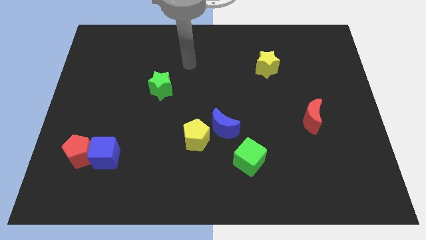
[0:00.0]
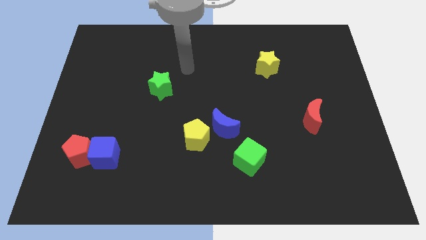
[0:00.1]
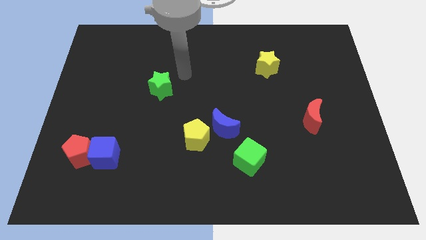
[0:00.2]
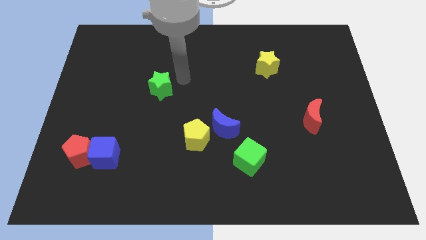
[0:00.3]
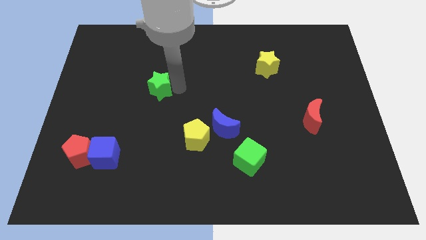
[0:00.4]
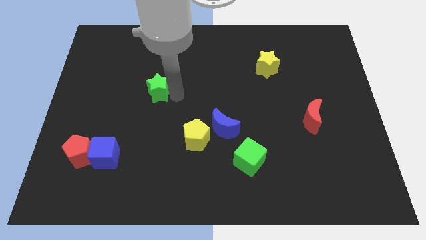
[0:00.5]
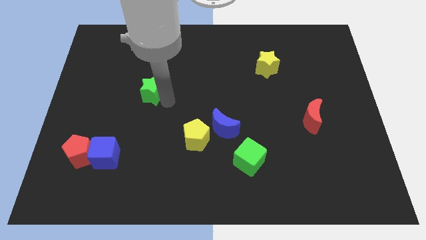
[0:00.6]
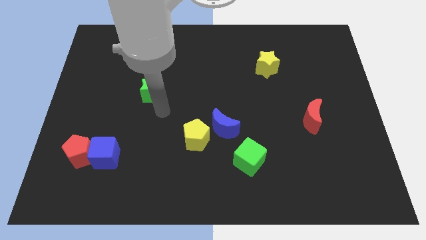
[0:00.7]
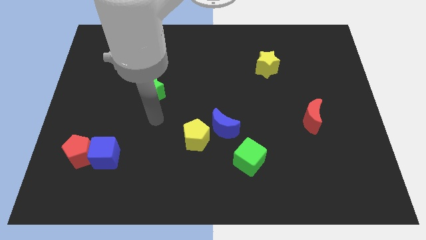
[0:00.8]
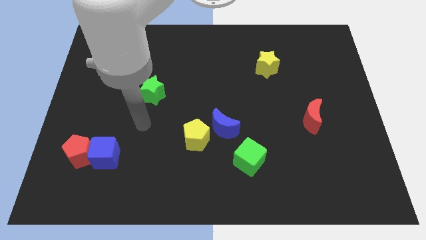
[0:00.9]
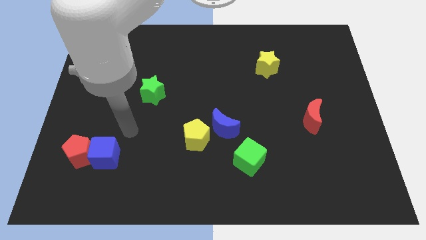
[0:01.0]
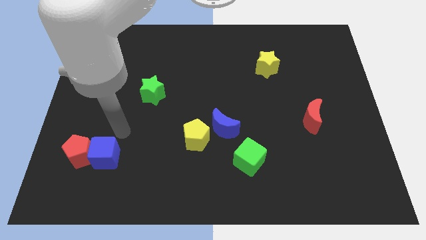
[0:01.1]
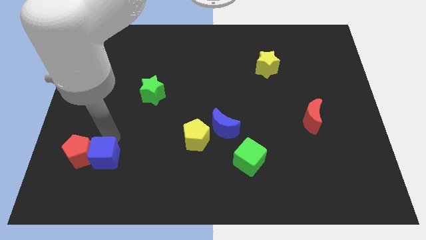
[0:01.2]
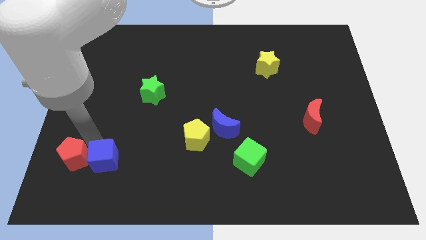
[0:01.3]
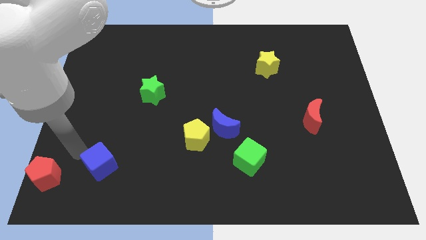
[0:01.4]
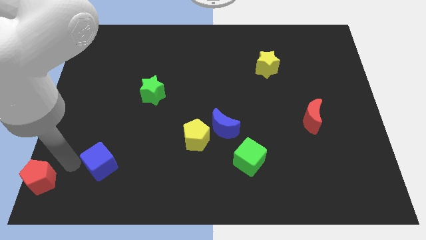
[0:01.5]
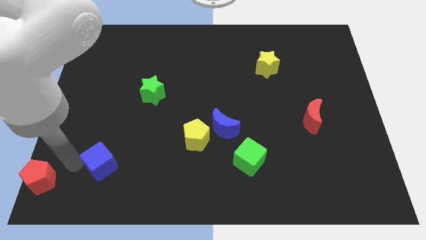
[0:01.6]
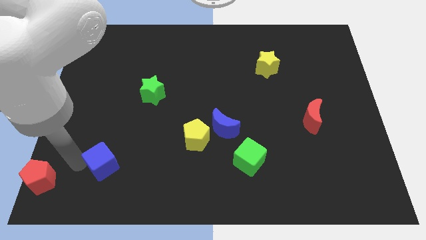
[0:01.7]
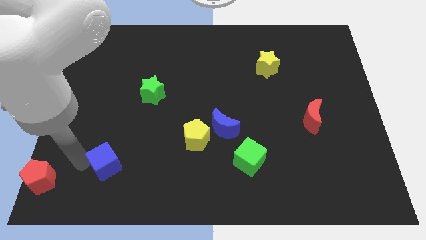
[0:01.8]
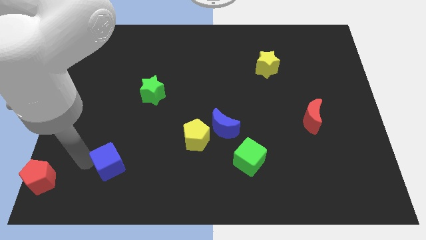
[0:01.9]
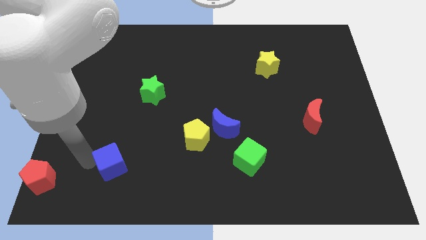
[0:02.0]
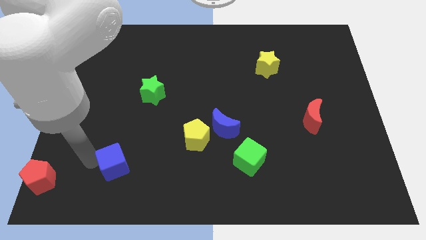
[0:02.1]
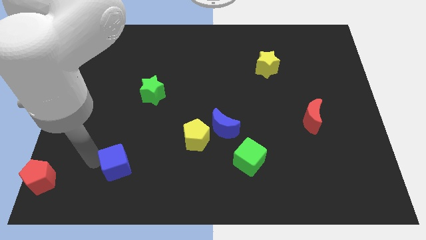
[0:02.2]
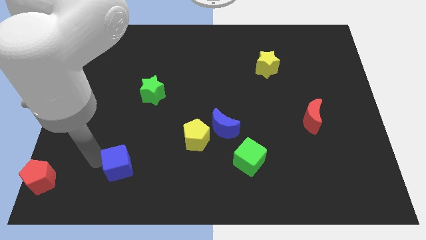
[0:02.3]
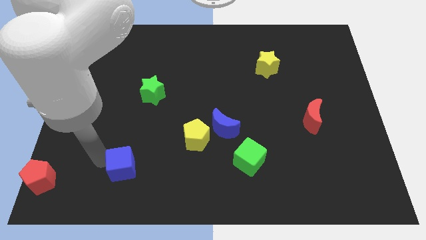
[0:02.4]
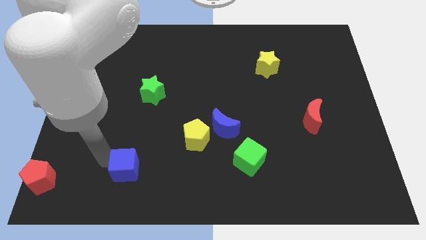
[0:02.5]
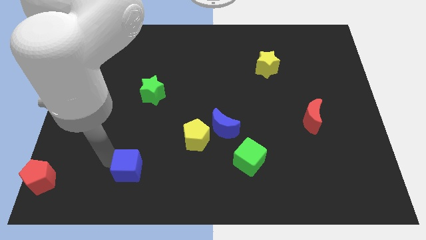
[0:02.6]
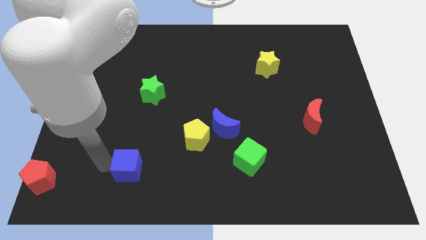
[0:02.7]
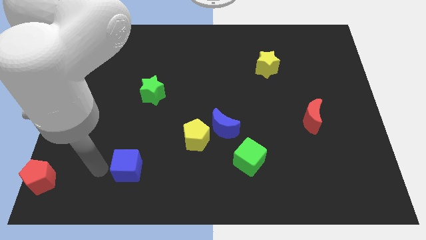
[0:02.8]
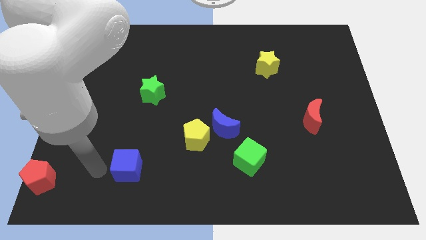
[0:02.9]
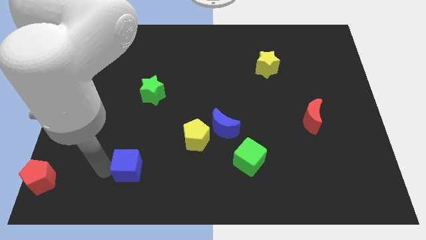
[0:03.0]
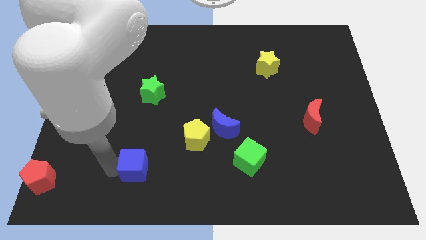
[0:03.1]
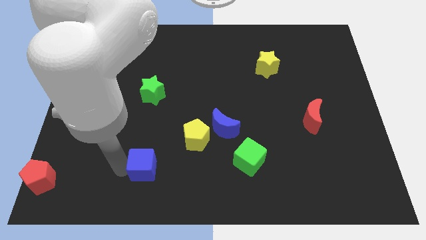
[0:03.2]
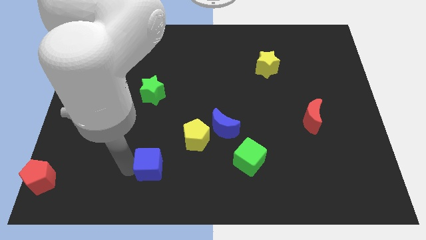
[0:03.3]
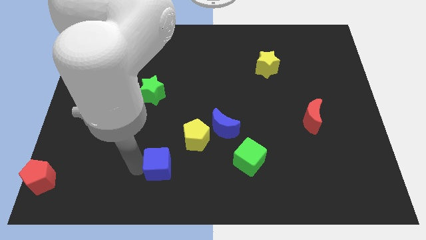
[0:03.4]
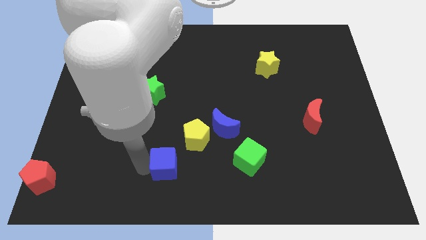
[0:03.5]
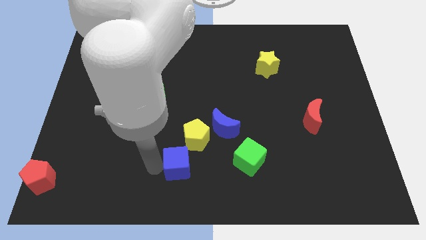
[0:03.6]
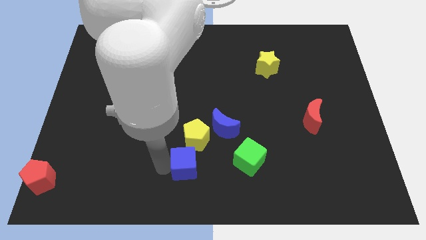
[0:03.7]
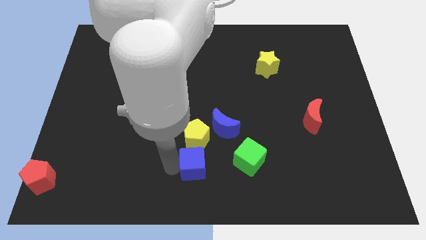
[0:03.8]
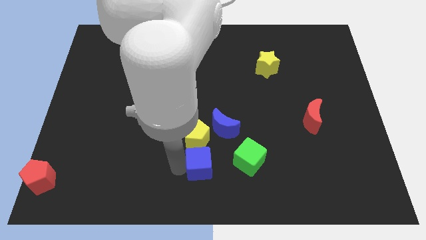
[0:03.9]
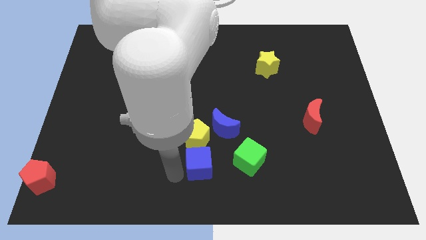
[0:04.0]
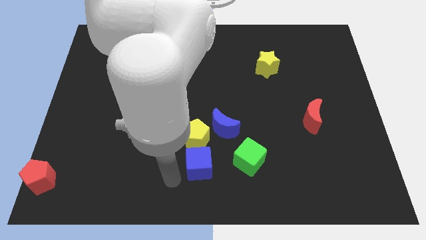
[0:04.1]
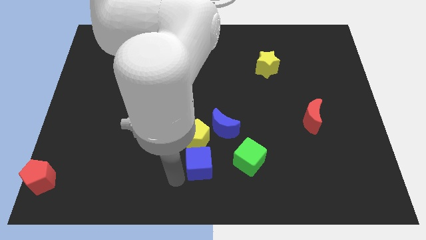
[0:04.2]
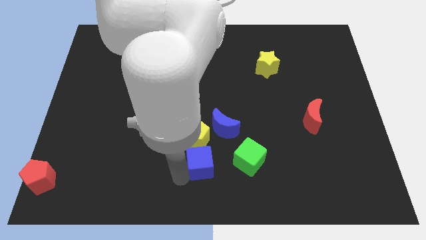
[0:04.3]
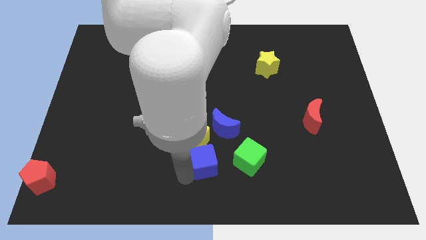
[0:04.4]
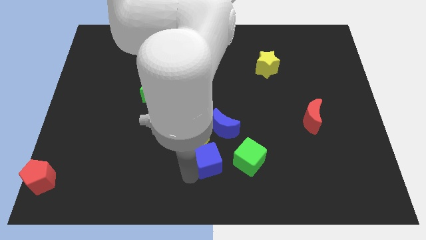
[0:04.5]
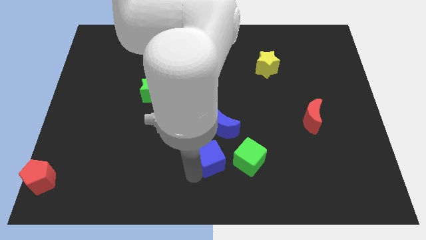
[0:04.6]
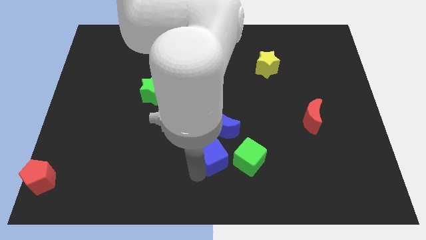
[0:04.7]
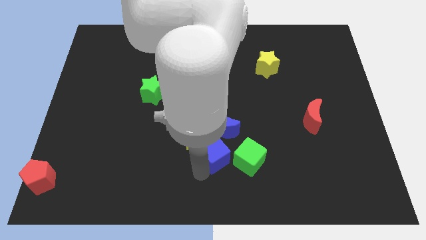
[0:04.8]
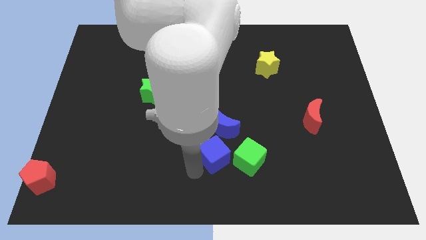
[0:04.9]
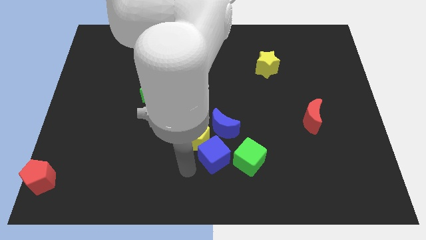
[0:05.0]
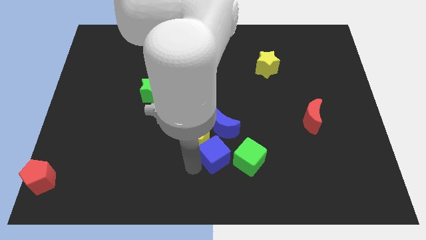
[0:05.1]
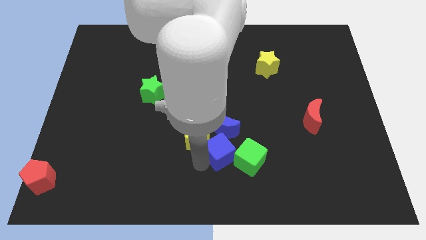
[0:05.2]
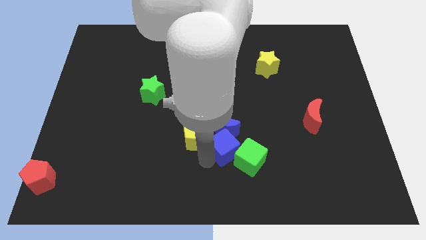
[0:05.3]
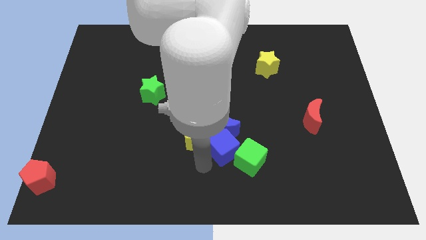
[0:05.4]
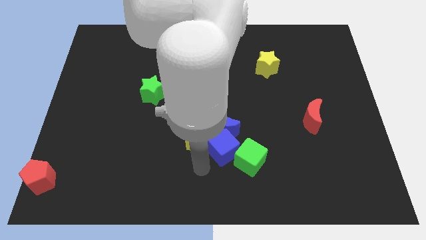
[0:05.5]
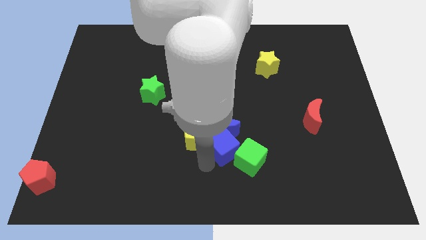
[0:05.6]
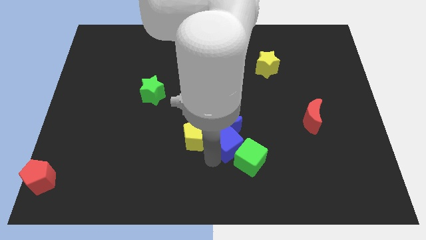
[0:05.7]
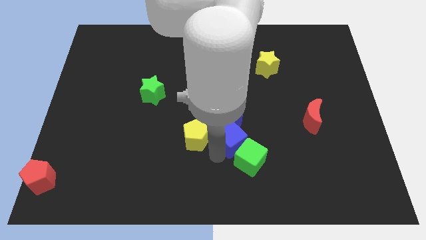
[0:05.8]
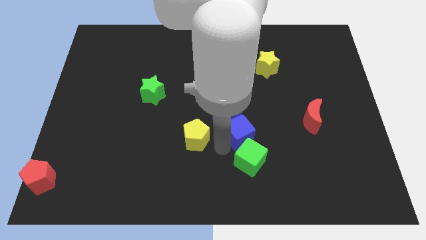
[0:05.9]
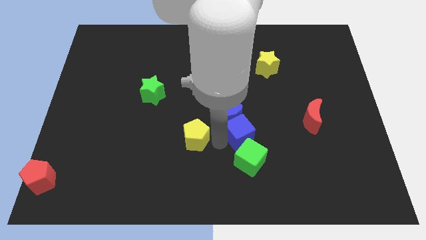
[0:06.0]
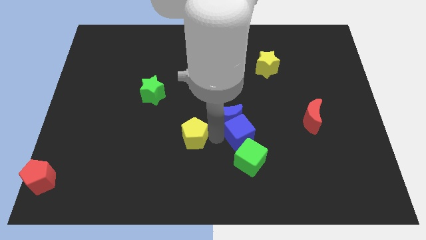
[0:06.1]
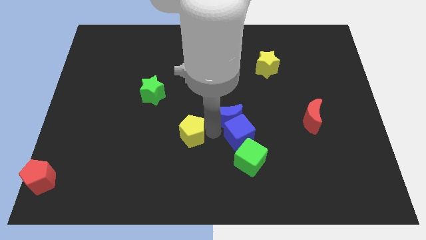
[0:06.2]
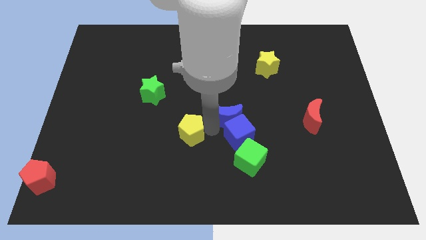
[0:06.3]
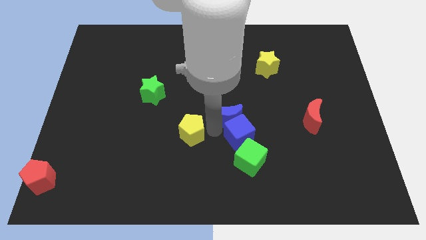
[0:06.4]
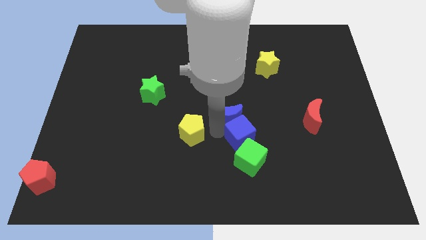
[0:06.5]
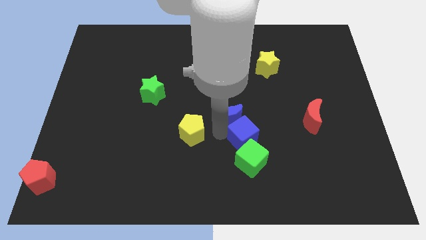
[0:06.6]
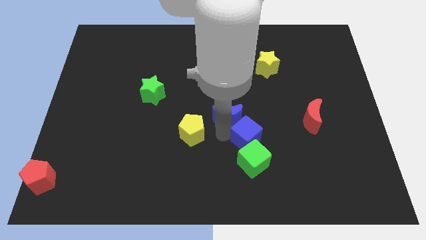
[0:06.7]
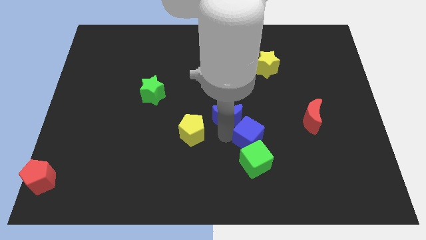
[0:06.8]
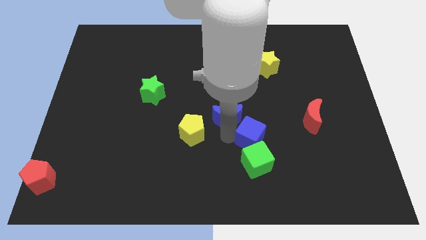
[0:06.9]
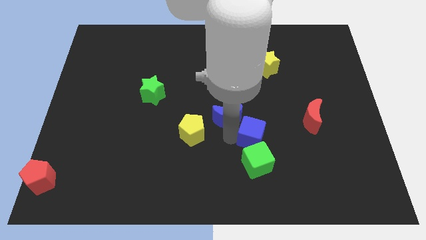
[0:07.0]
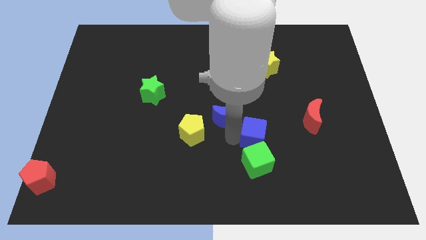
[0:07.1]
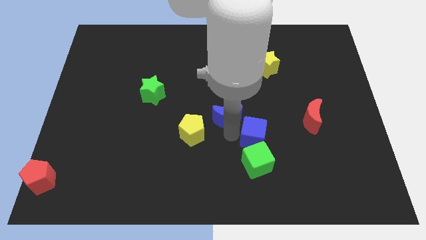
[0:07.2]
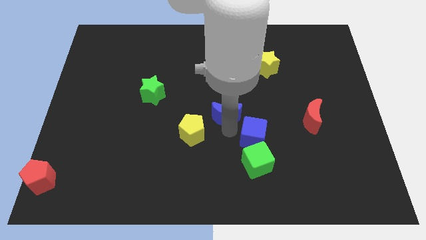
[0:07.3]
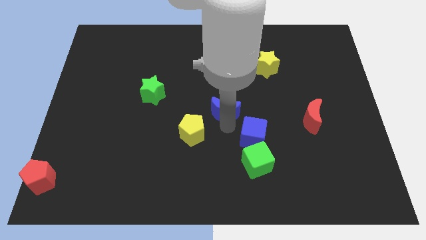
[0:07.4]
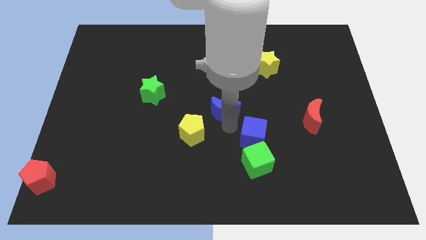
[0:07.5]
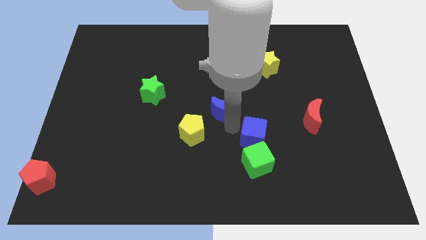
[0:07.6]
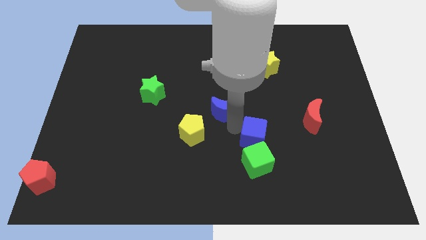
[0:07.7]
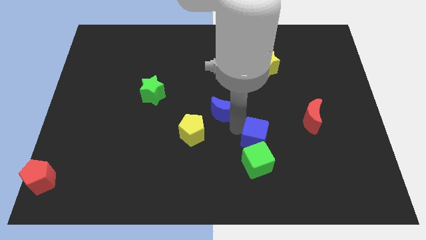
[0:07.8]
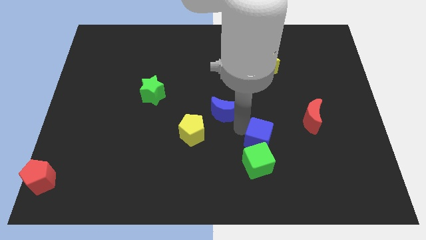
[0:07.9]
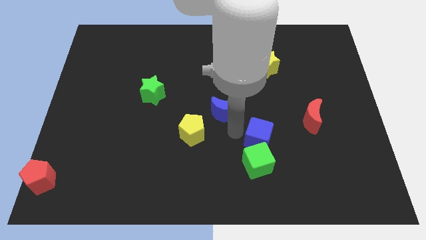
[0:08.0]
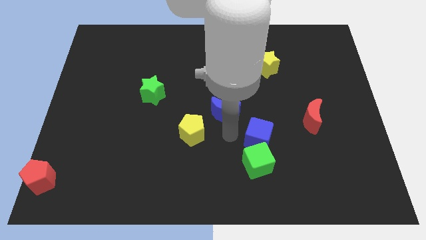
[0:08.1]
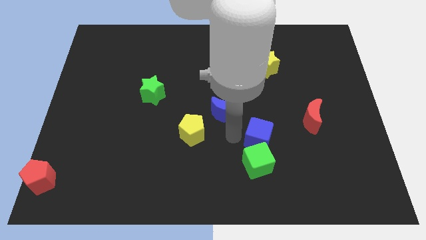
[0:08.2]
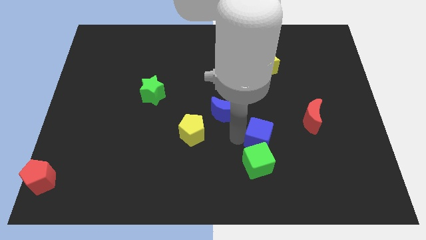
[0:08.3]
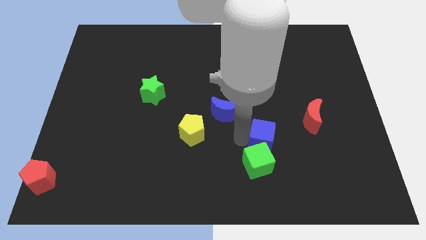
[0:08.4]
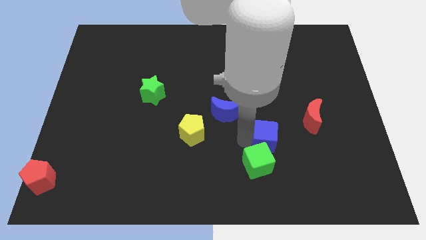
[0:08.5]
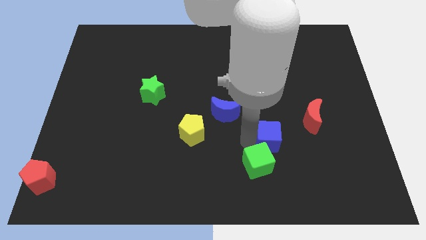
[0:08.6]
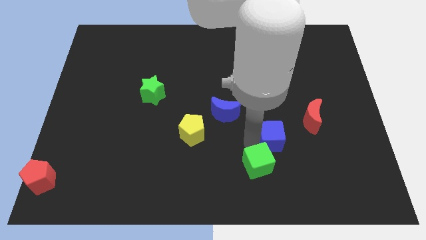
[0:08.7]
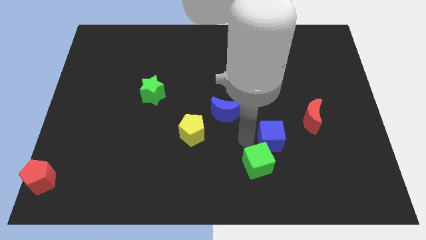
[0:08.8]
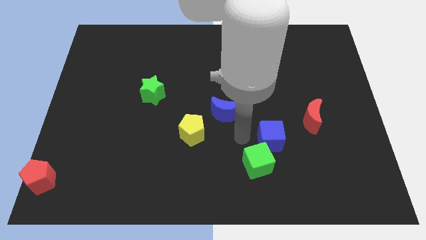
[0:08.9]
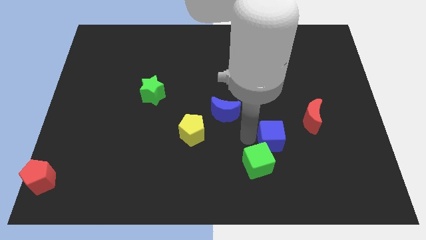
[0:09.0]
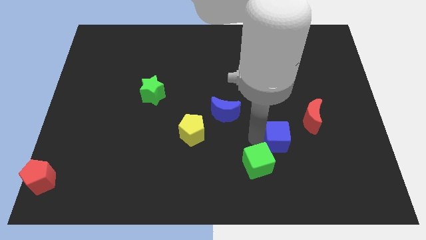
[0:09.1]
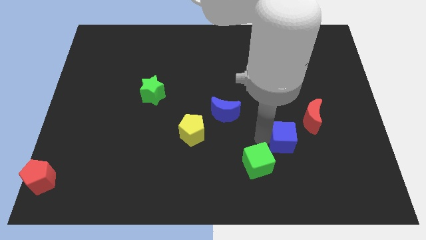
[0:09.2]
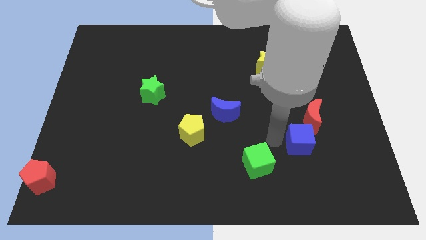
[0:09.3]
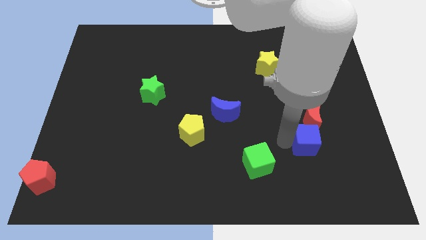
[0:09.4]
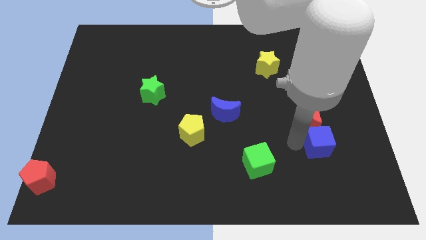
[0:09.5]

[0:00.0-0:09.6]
put the blue cube diagonally down and to the right of the red moon
